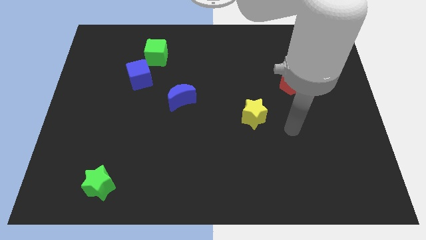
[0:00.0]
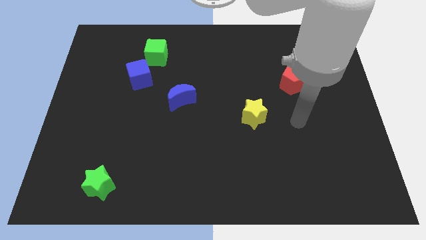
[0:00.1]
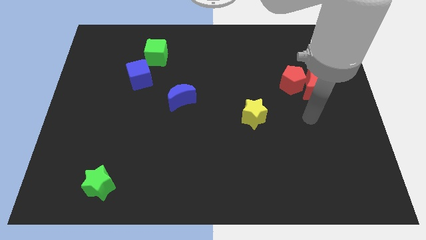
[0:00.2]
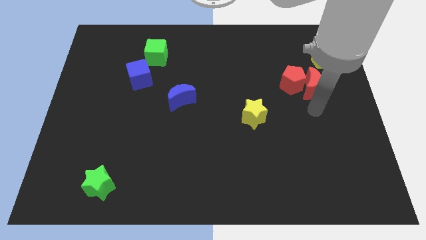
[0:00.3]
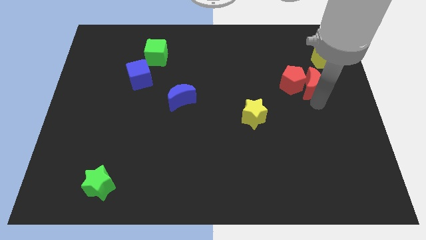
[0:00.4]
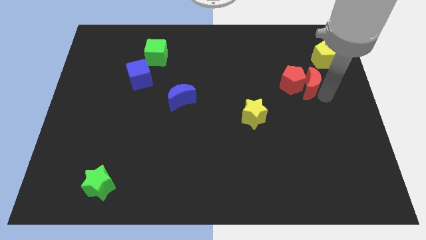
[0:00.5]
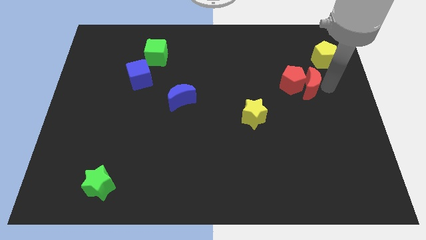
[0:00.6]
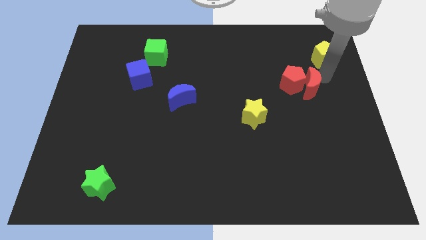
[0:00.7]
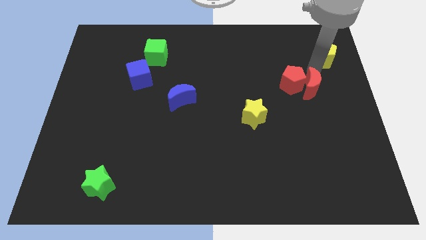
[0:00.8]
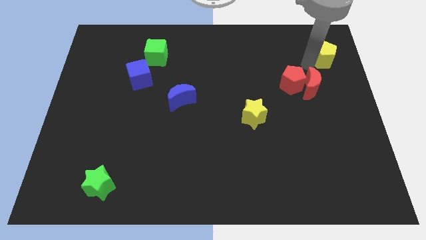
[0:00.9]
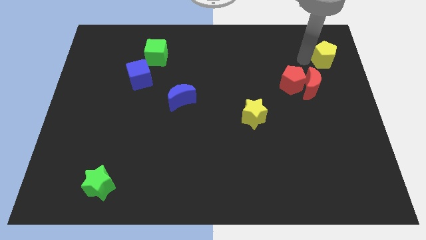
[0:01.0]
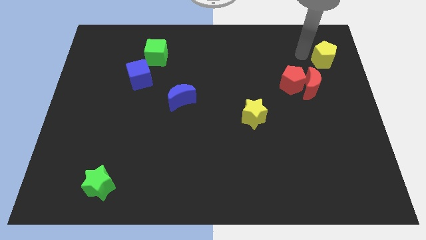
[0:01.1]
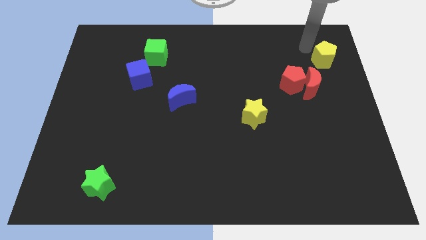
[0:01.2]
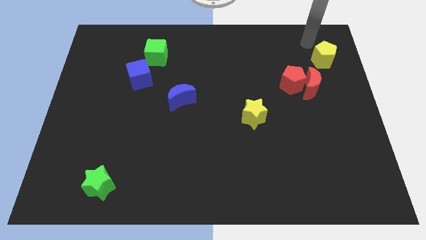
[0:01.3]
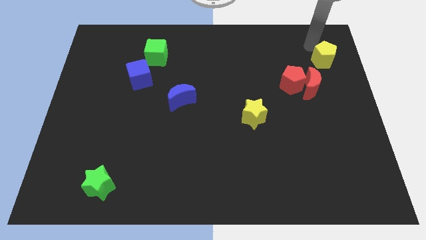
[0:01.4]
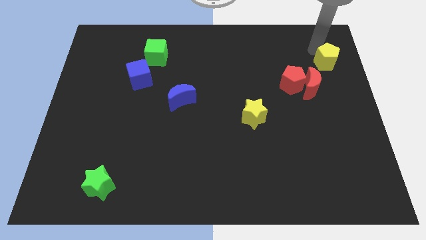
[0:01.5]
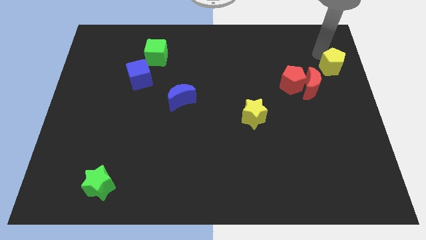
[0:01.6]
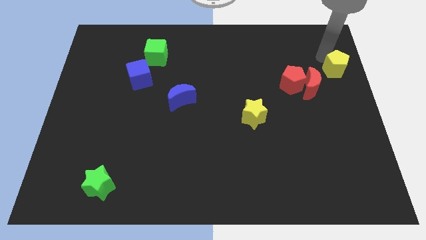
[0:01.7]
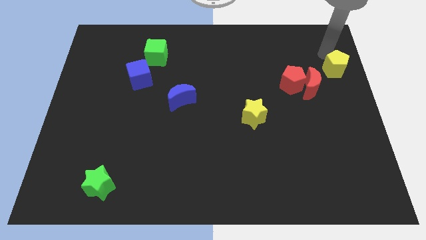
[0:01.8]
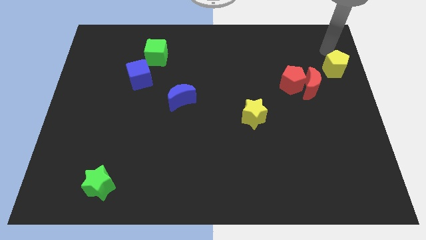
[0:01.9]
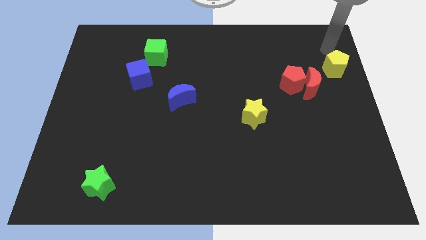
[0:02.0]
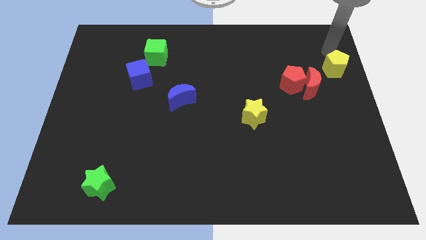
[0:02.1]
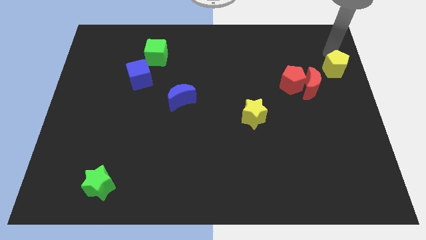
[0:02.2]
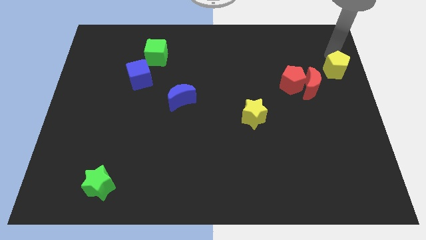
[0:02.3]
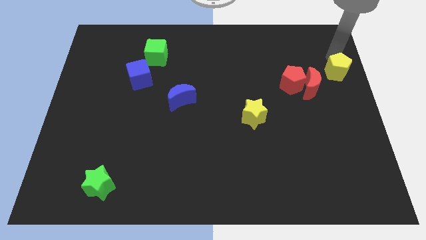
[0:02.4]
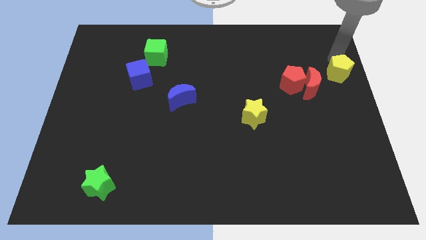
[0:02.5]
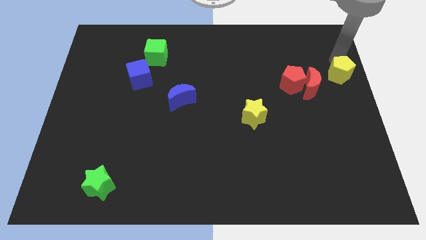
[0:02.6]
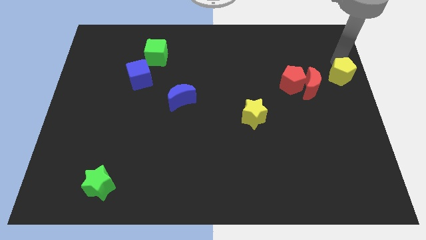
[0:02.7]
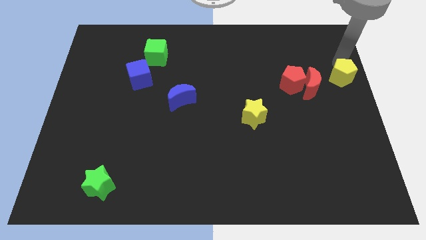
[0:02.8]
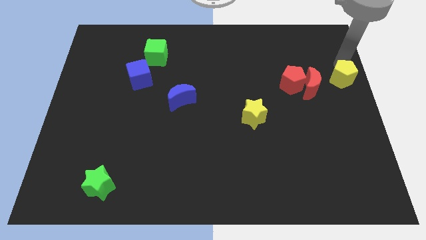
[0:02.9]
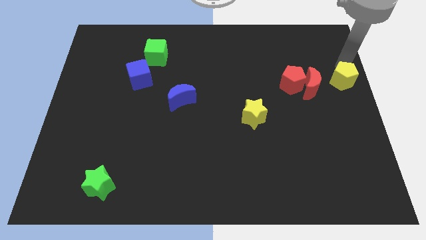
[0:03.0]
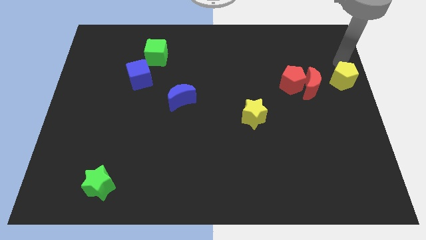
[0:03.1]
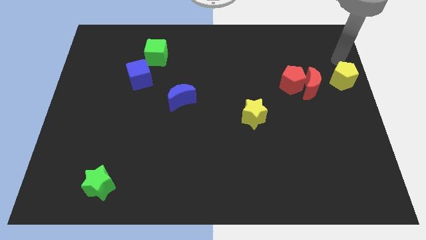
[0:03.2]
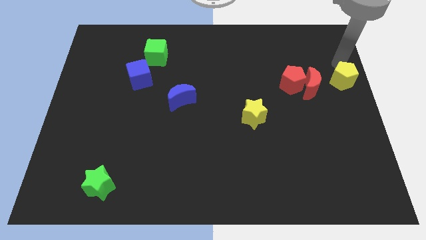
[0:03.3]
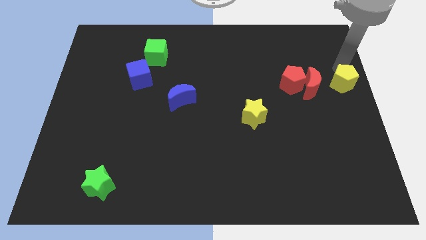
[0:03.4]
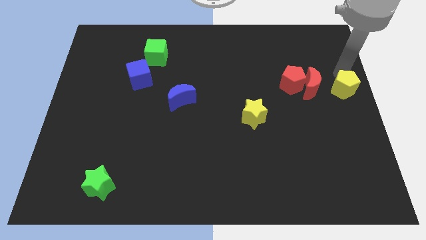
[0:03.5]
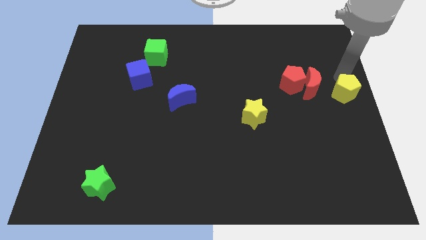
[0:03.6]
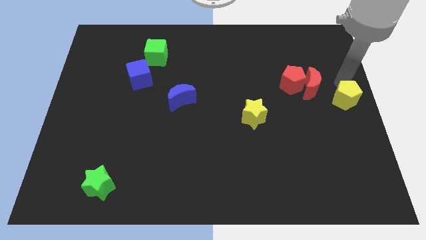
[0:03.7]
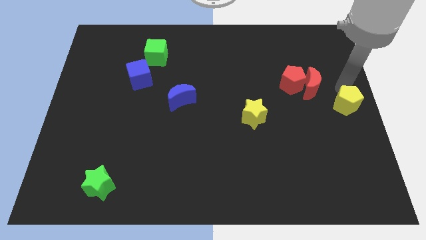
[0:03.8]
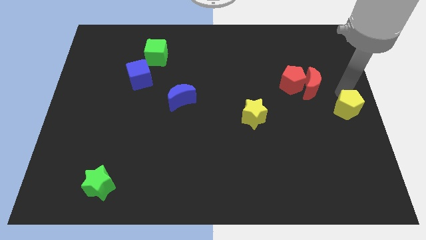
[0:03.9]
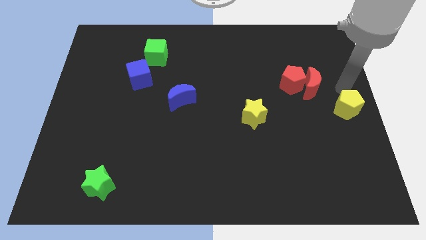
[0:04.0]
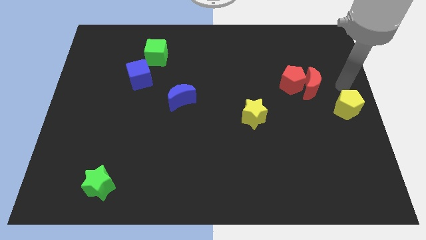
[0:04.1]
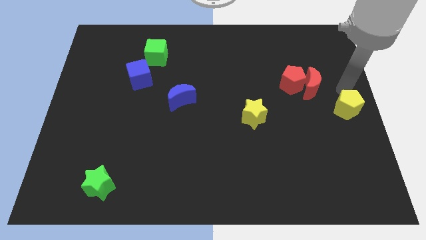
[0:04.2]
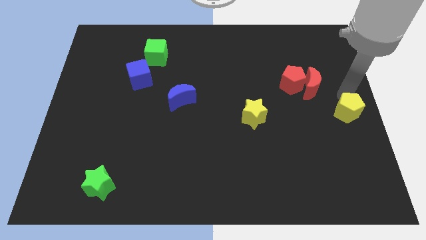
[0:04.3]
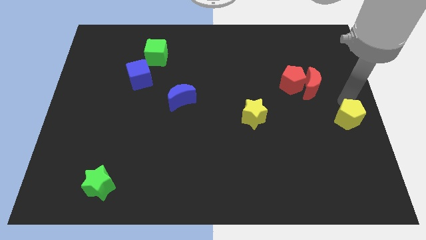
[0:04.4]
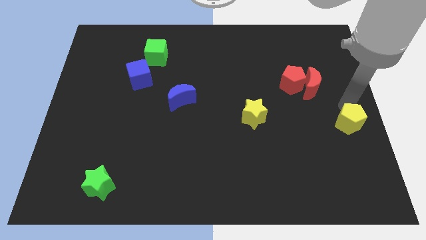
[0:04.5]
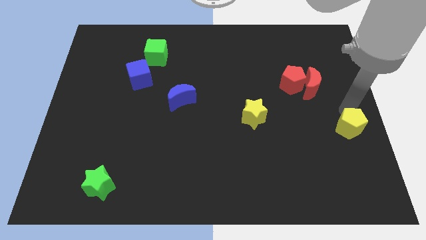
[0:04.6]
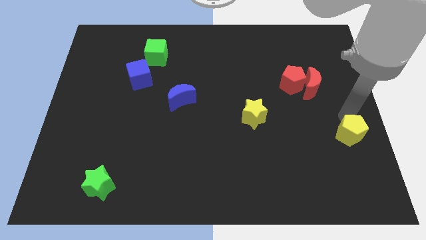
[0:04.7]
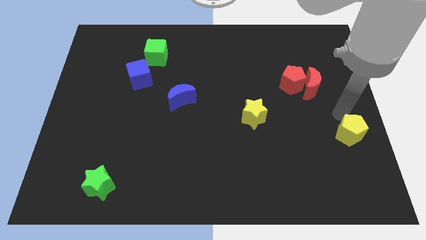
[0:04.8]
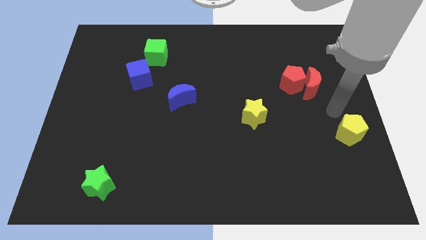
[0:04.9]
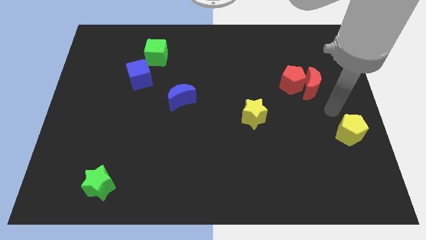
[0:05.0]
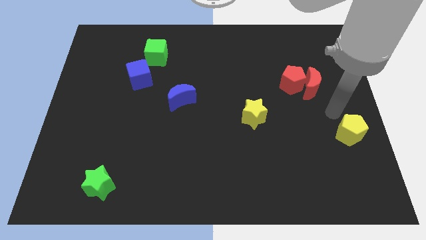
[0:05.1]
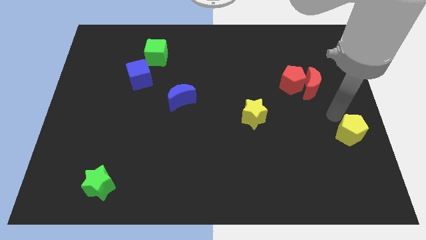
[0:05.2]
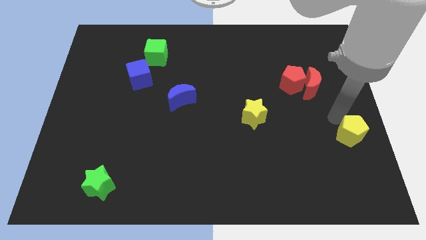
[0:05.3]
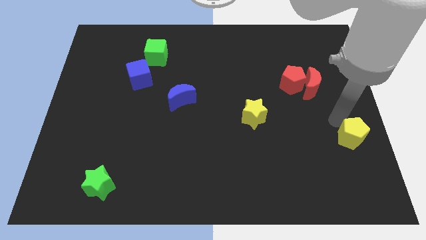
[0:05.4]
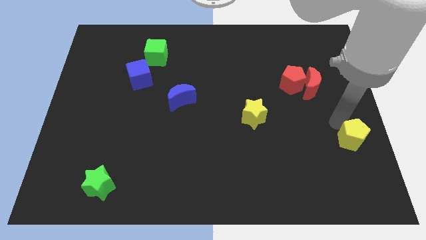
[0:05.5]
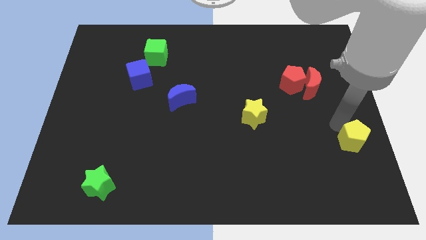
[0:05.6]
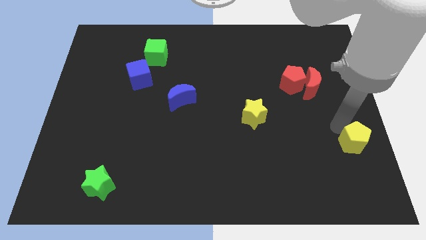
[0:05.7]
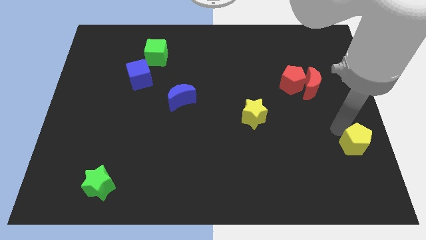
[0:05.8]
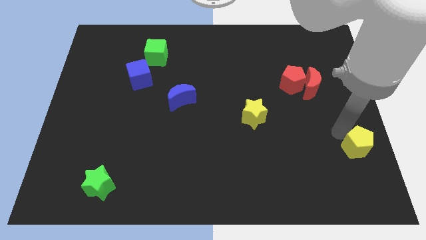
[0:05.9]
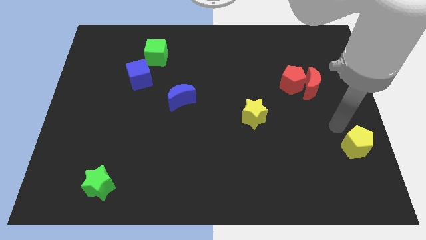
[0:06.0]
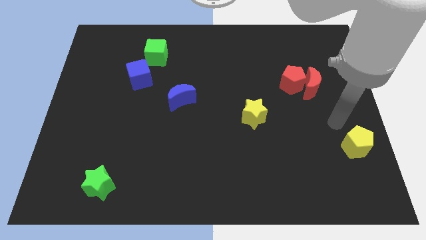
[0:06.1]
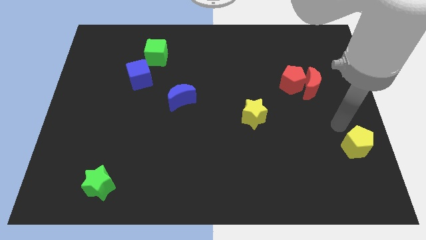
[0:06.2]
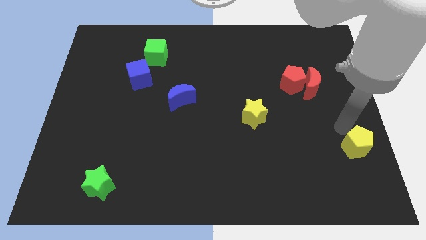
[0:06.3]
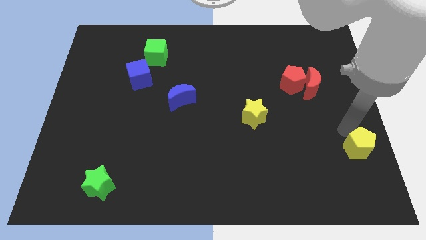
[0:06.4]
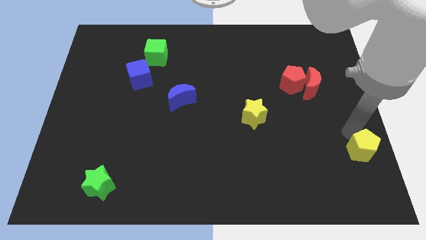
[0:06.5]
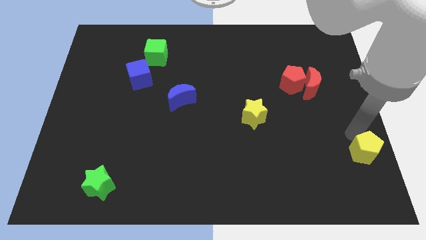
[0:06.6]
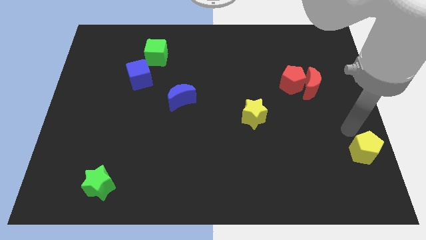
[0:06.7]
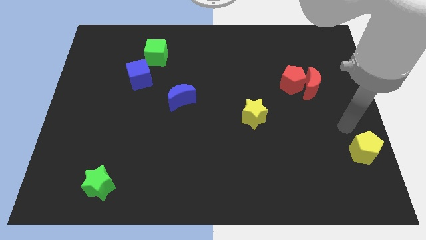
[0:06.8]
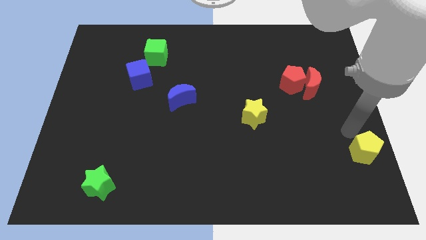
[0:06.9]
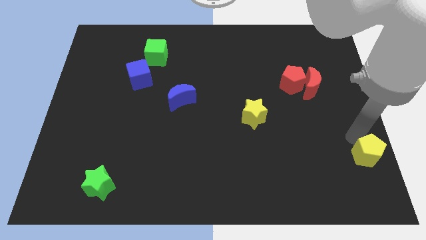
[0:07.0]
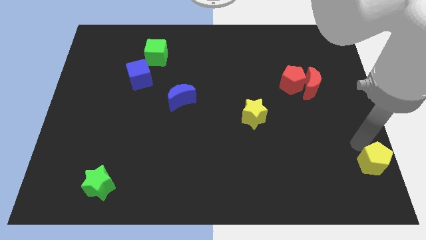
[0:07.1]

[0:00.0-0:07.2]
put the yellow pentagon to the bottom right
